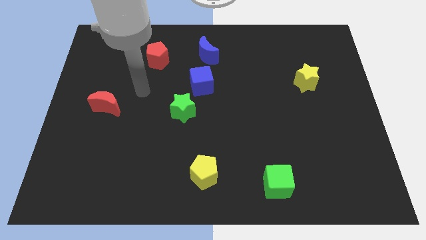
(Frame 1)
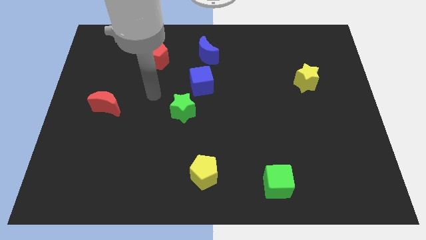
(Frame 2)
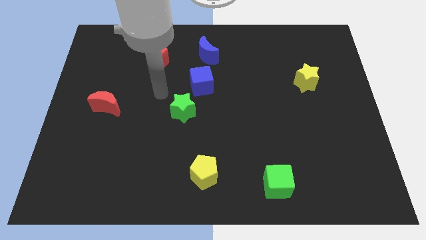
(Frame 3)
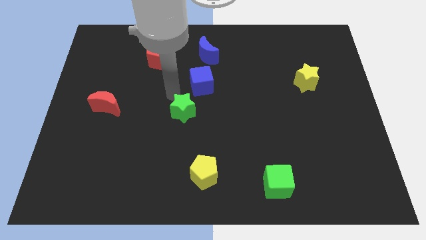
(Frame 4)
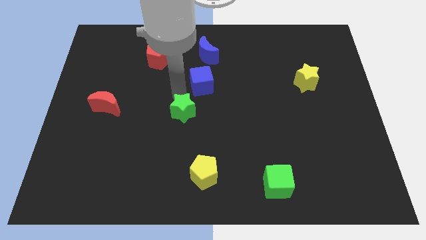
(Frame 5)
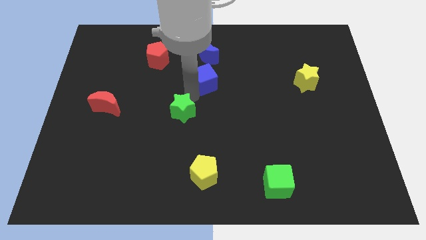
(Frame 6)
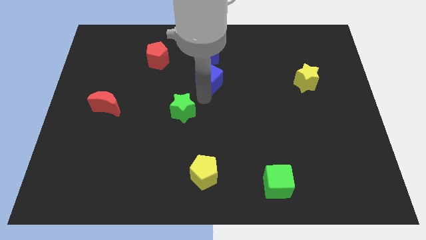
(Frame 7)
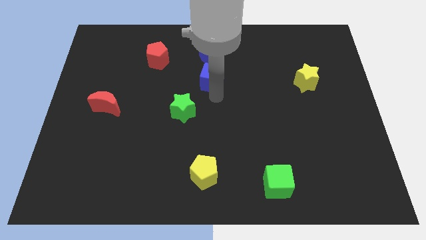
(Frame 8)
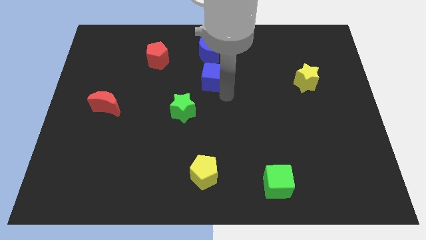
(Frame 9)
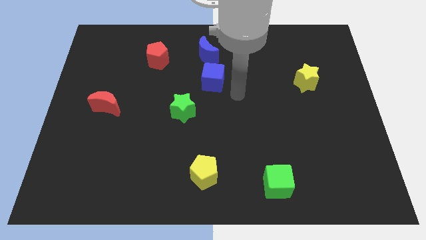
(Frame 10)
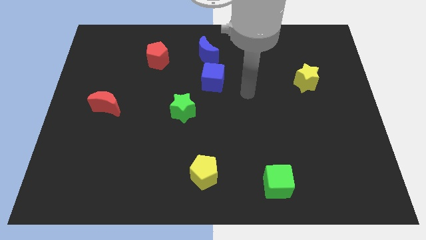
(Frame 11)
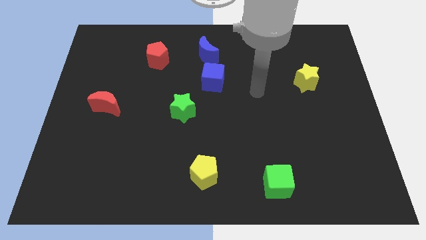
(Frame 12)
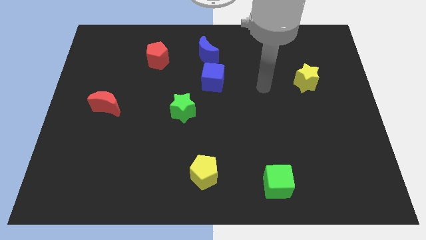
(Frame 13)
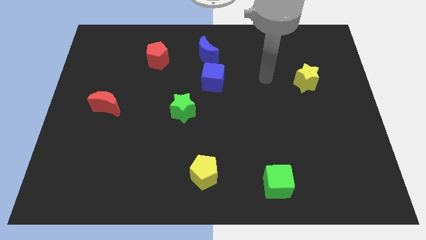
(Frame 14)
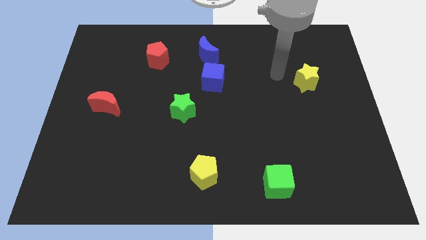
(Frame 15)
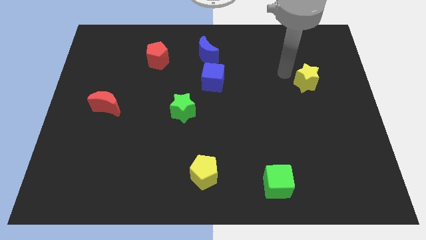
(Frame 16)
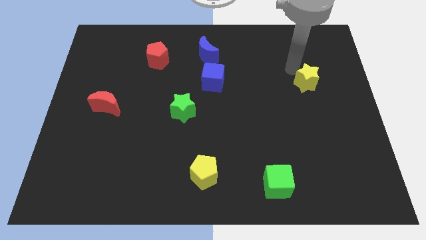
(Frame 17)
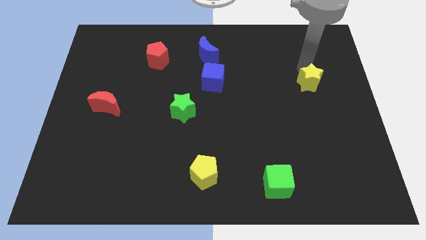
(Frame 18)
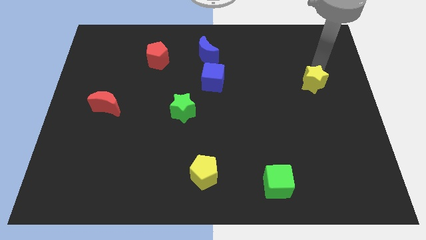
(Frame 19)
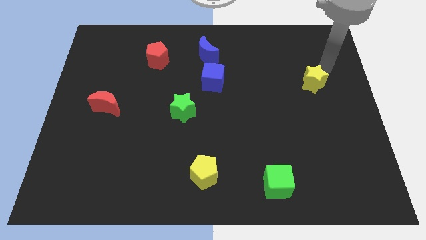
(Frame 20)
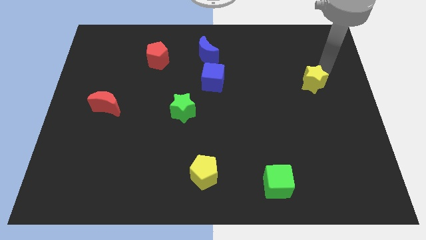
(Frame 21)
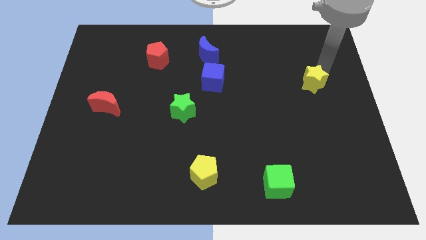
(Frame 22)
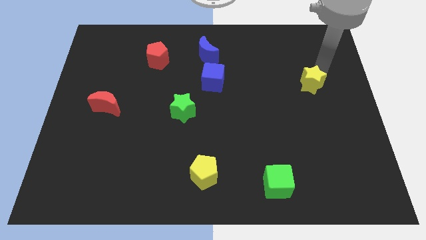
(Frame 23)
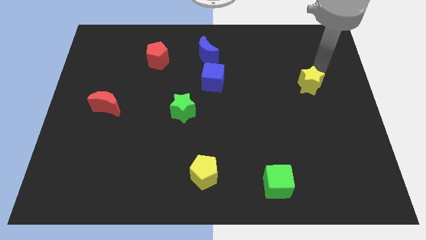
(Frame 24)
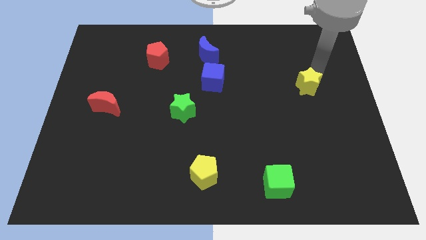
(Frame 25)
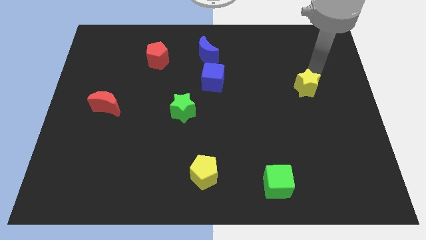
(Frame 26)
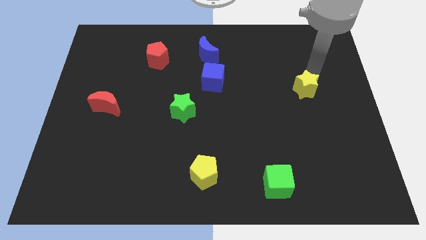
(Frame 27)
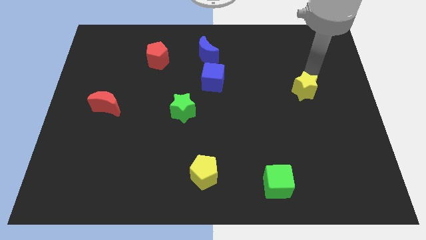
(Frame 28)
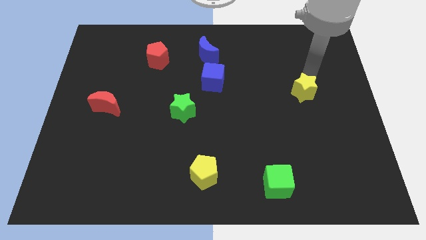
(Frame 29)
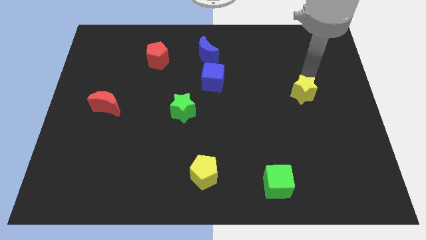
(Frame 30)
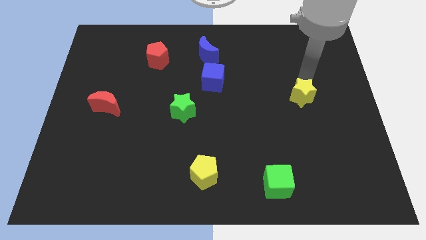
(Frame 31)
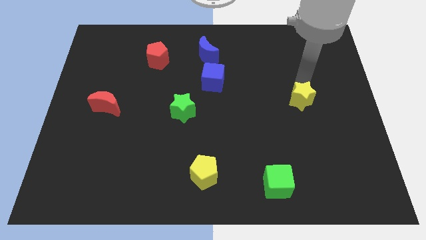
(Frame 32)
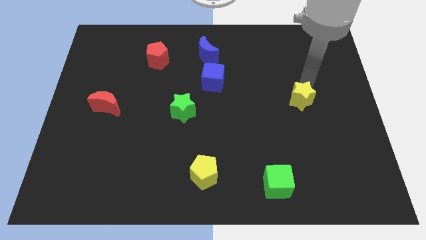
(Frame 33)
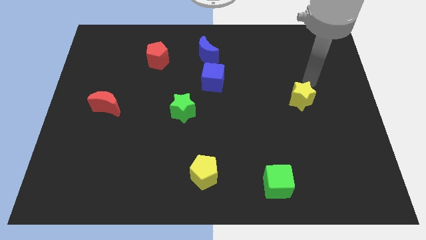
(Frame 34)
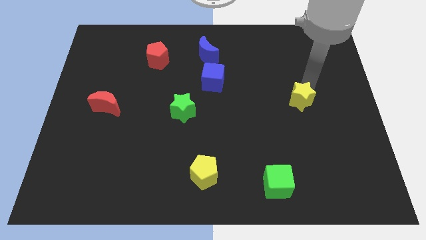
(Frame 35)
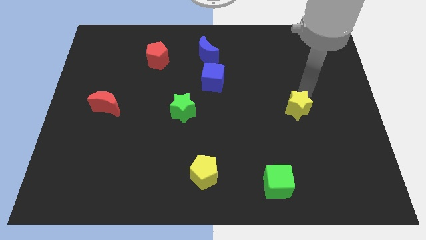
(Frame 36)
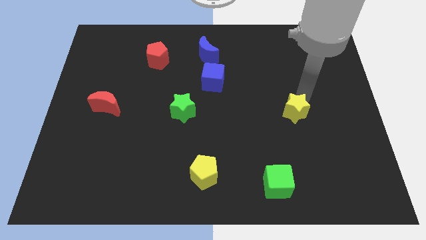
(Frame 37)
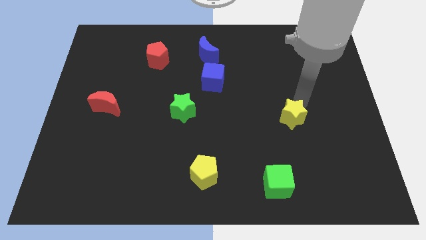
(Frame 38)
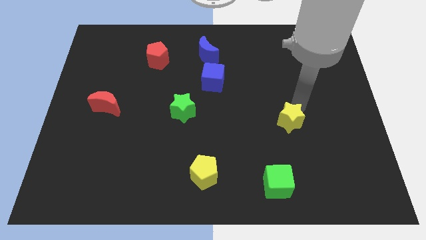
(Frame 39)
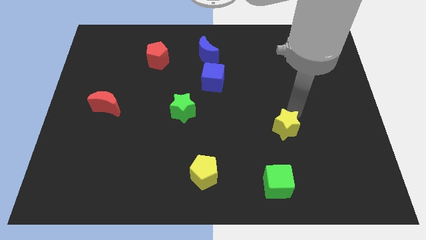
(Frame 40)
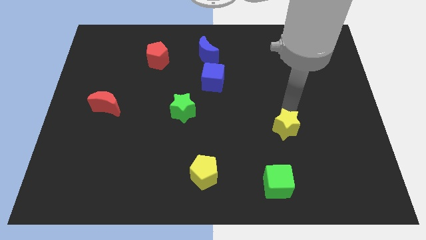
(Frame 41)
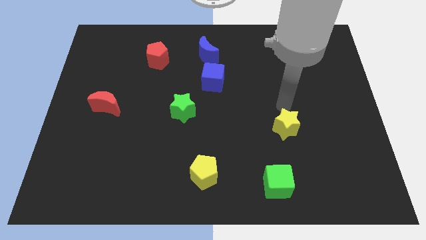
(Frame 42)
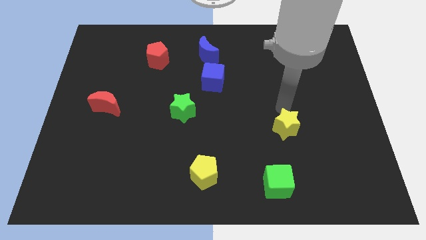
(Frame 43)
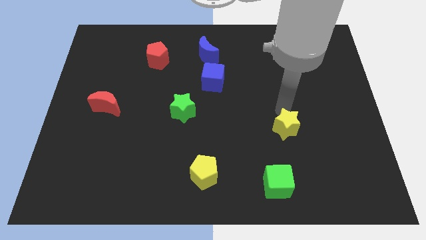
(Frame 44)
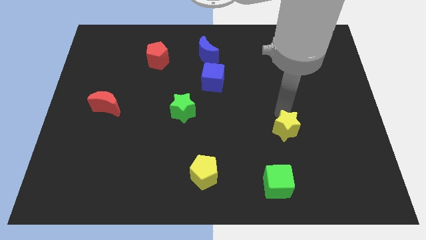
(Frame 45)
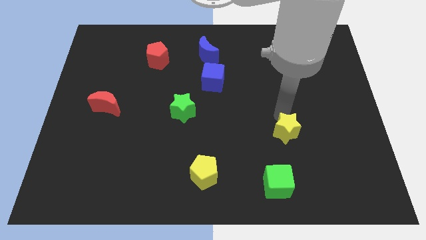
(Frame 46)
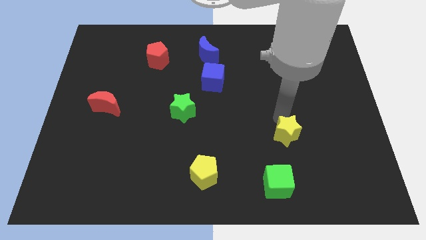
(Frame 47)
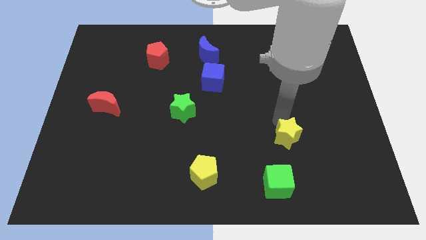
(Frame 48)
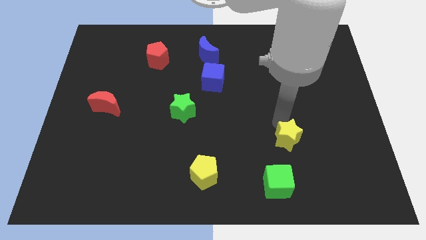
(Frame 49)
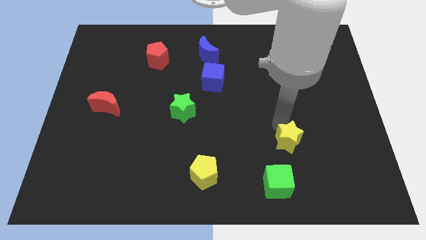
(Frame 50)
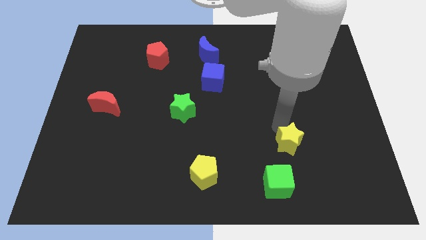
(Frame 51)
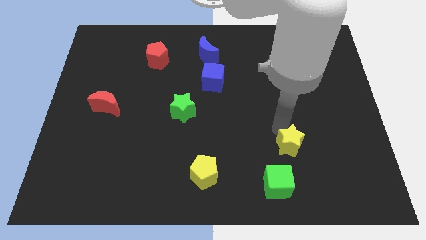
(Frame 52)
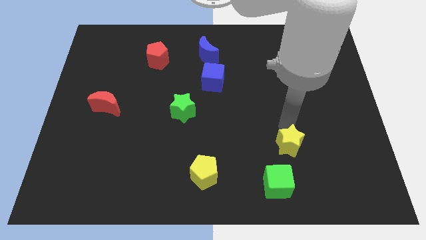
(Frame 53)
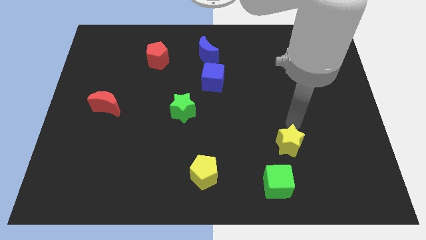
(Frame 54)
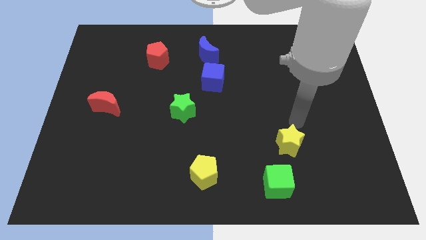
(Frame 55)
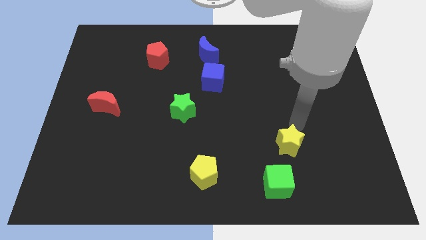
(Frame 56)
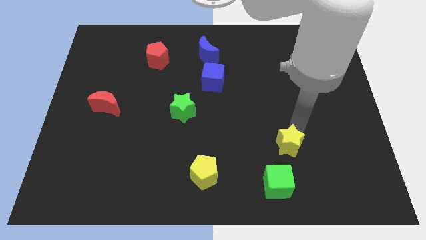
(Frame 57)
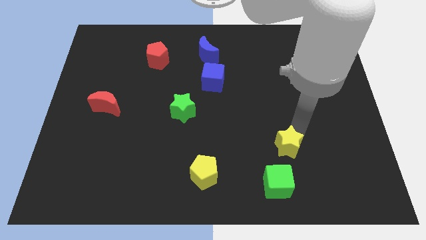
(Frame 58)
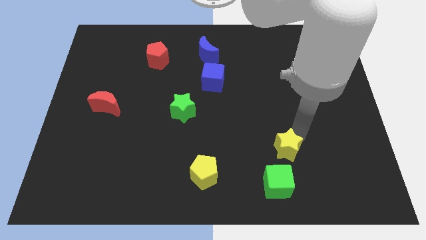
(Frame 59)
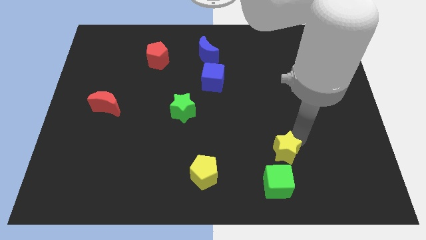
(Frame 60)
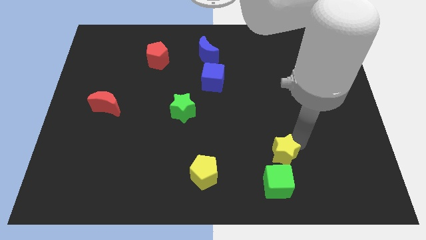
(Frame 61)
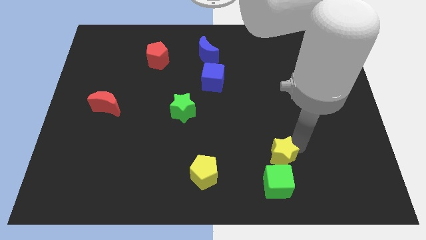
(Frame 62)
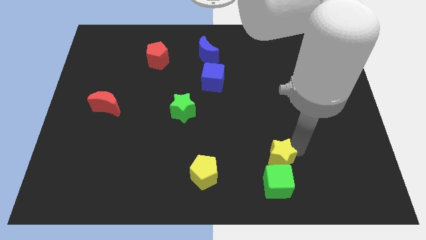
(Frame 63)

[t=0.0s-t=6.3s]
put the yellow star close to the green cube

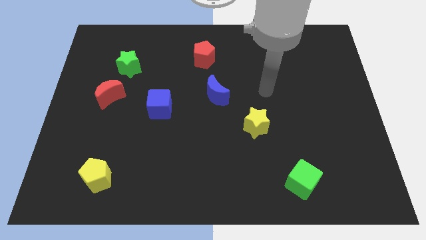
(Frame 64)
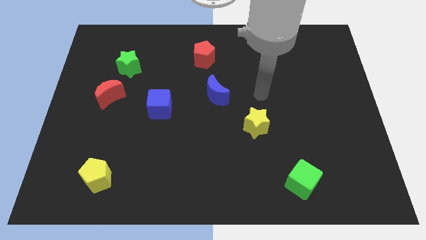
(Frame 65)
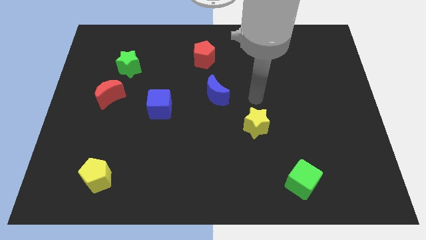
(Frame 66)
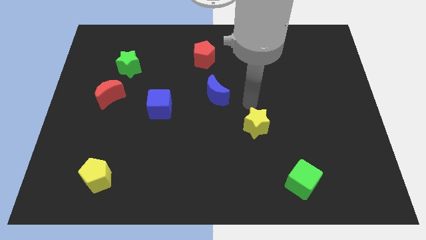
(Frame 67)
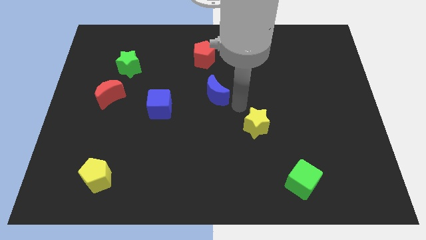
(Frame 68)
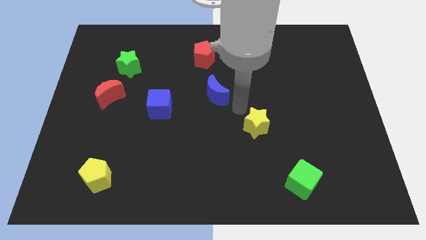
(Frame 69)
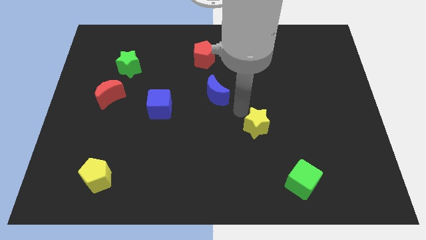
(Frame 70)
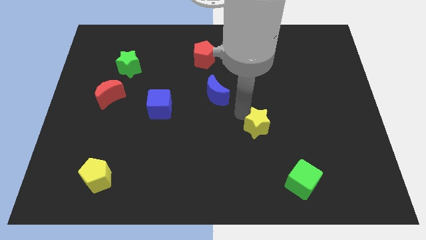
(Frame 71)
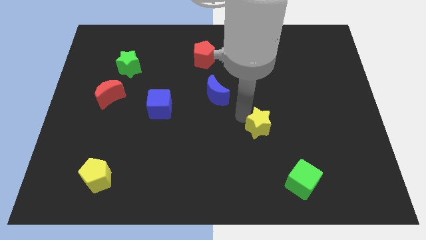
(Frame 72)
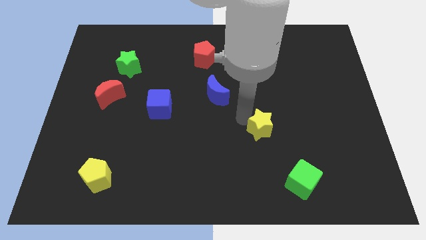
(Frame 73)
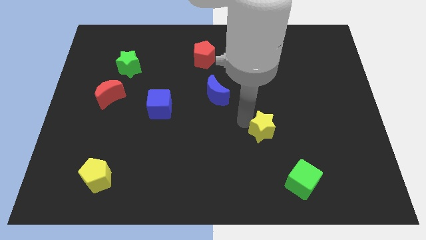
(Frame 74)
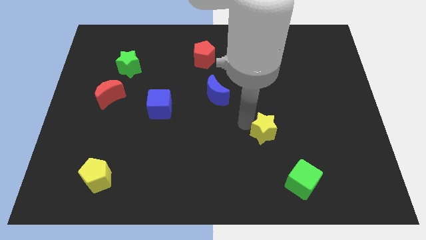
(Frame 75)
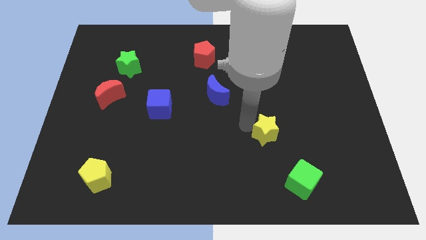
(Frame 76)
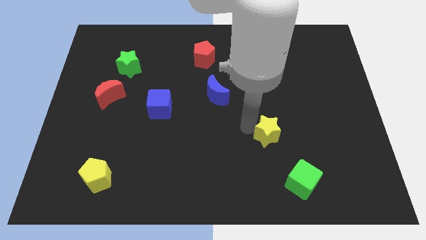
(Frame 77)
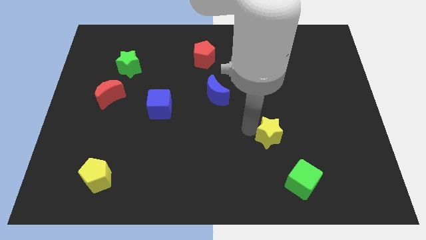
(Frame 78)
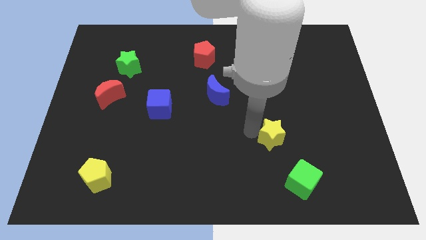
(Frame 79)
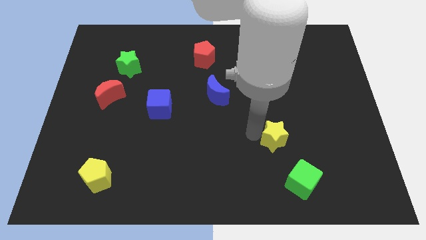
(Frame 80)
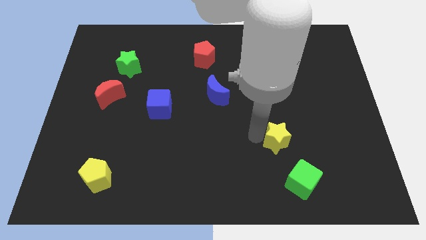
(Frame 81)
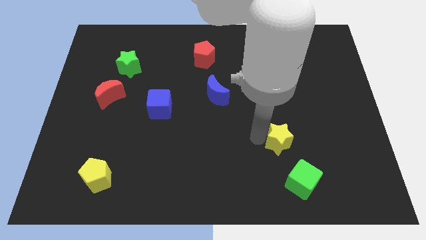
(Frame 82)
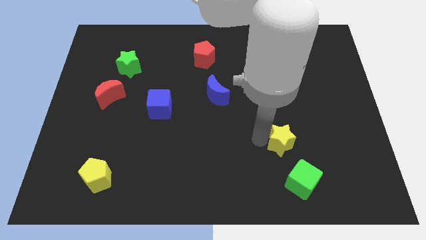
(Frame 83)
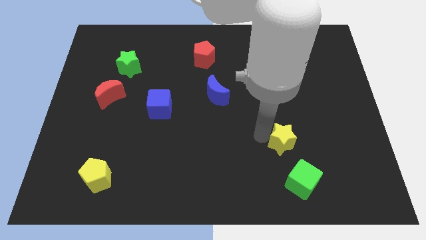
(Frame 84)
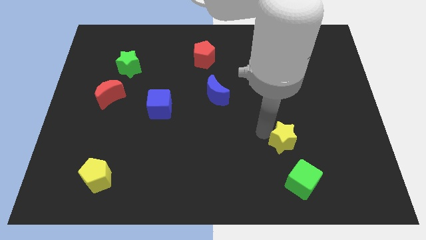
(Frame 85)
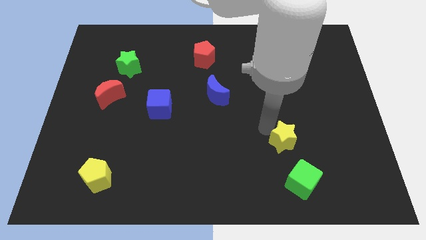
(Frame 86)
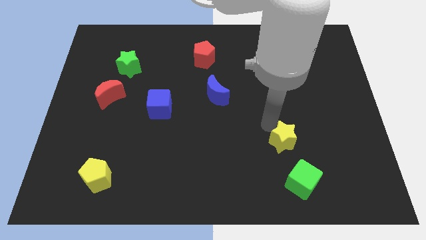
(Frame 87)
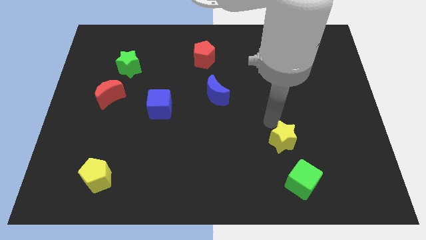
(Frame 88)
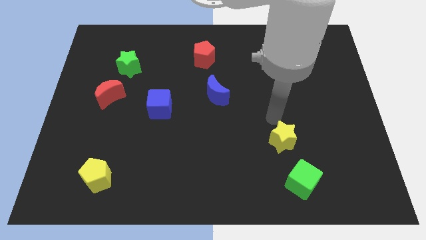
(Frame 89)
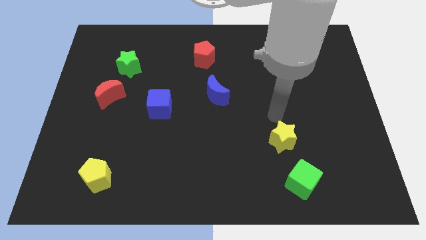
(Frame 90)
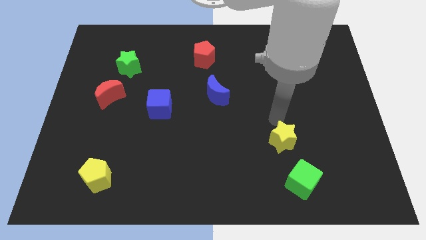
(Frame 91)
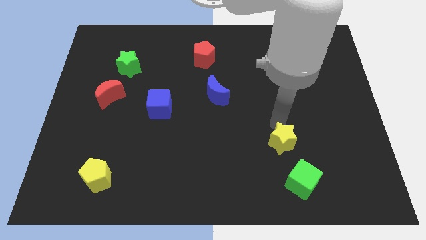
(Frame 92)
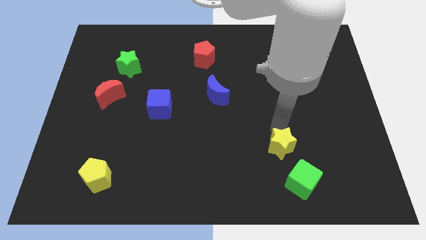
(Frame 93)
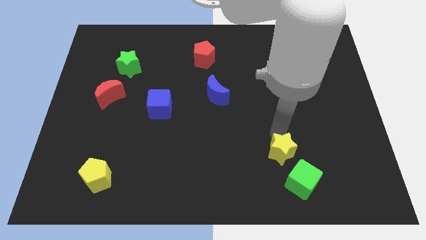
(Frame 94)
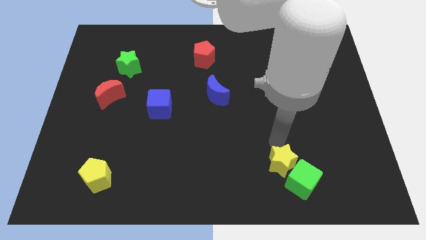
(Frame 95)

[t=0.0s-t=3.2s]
slide the yellow star next to the green cube
